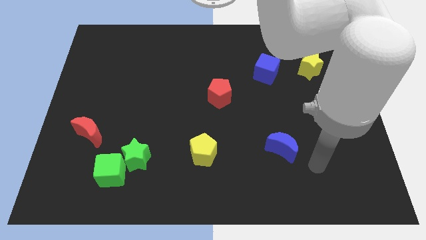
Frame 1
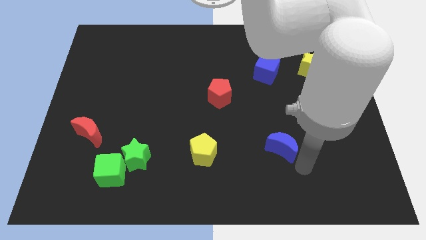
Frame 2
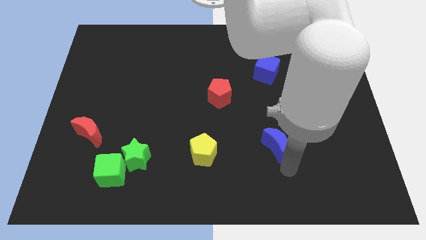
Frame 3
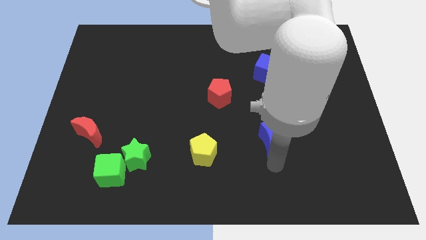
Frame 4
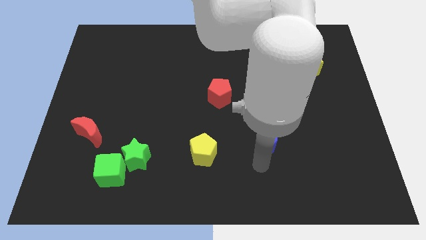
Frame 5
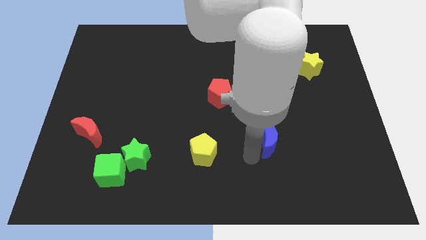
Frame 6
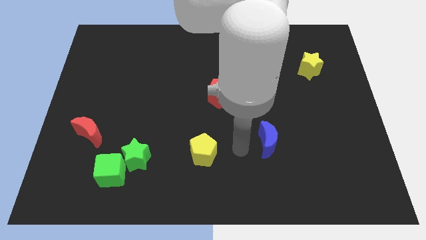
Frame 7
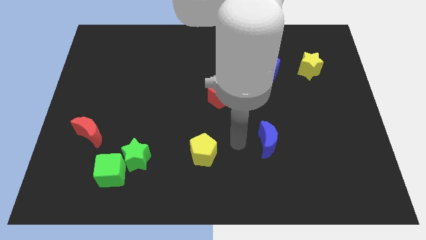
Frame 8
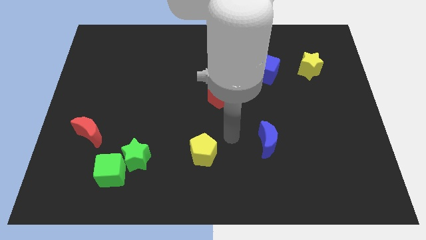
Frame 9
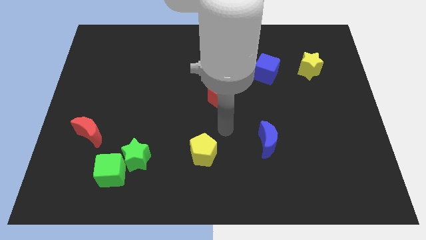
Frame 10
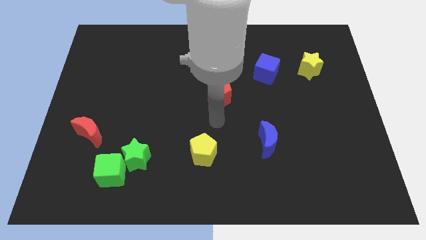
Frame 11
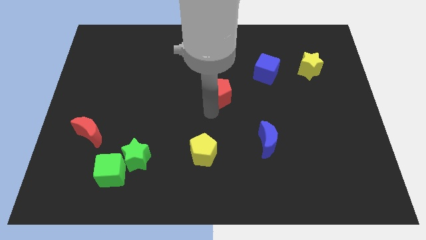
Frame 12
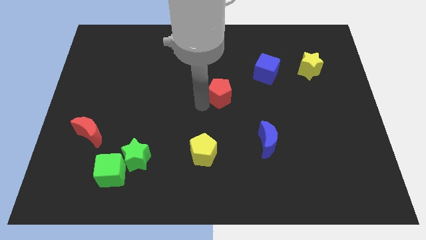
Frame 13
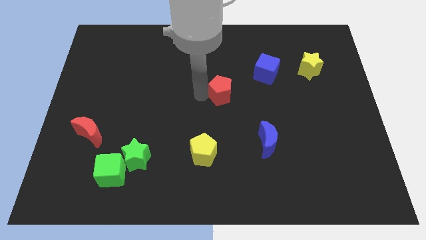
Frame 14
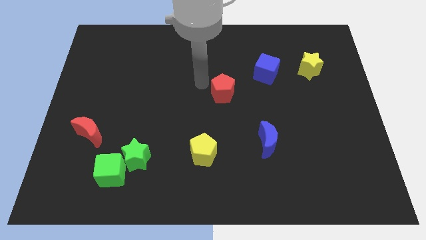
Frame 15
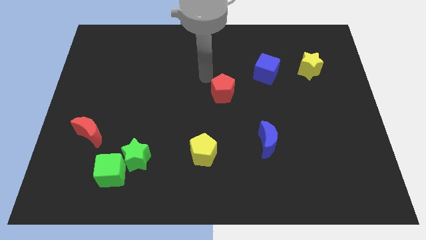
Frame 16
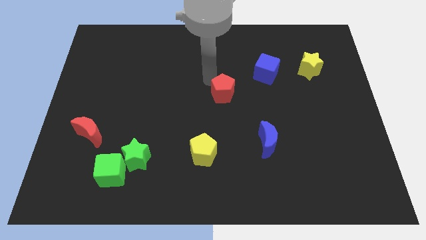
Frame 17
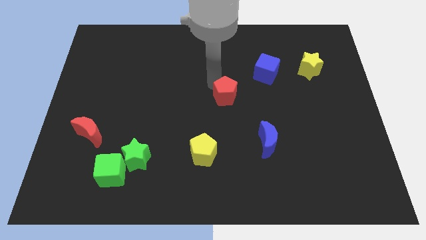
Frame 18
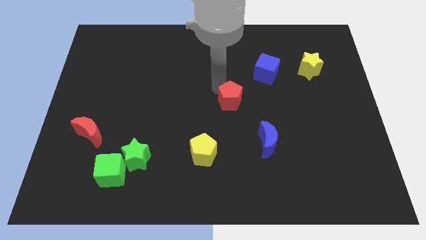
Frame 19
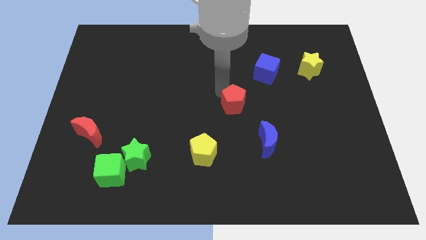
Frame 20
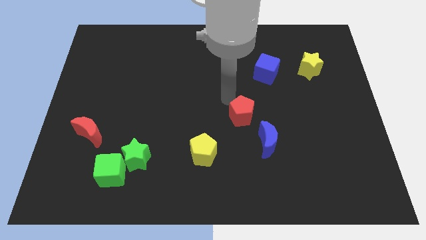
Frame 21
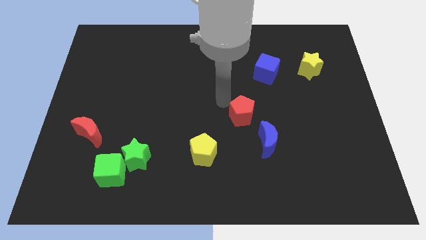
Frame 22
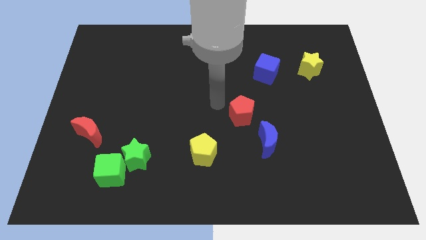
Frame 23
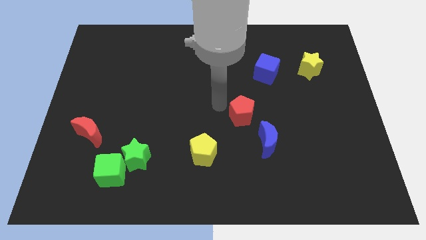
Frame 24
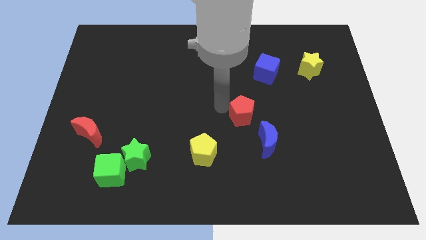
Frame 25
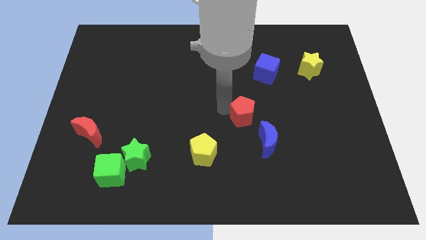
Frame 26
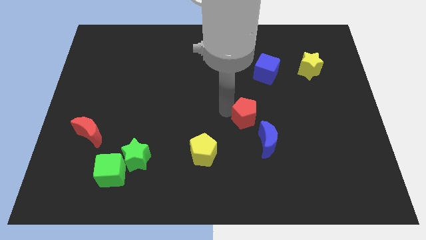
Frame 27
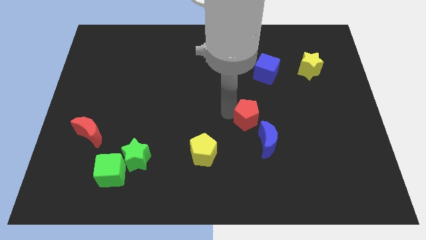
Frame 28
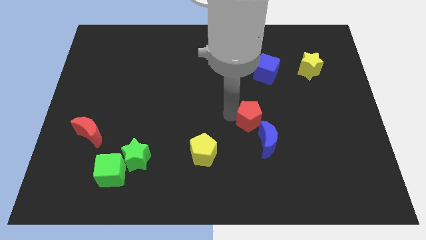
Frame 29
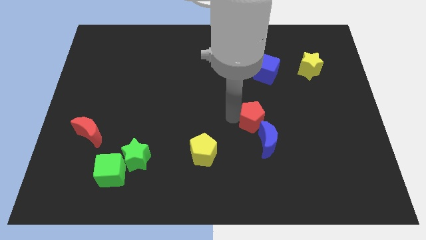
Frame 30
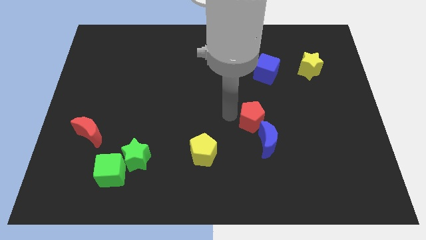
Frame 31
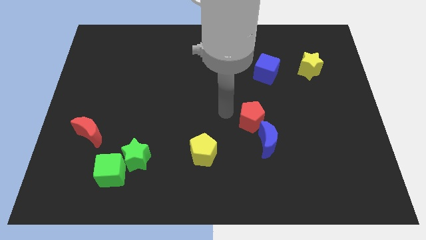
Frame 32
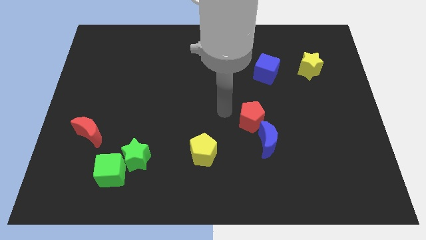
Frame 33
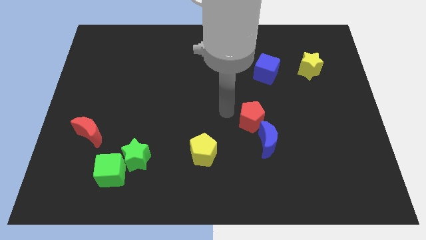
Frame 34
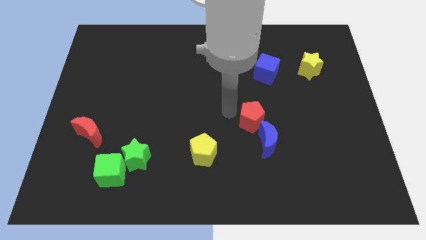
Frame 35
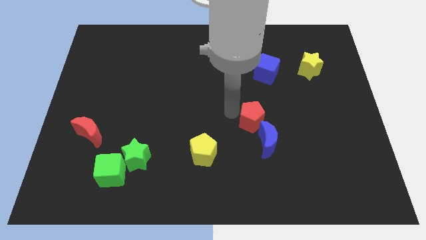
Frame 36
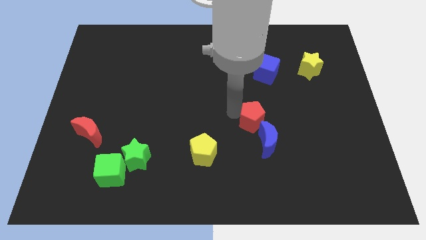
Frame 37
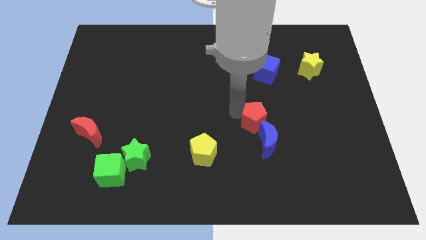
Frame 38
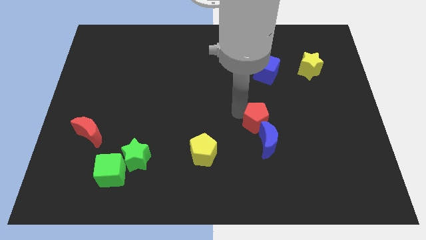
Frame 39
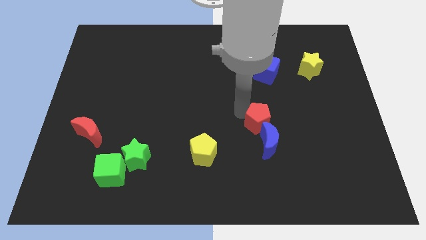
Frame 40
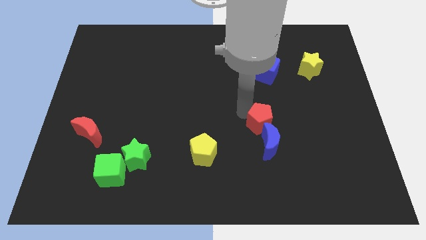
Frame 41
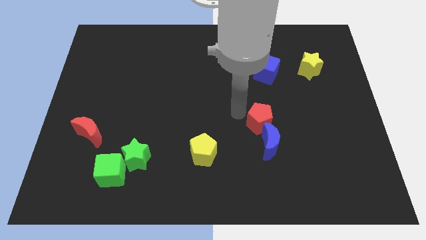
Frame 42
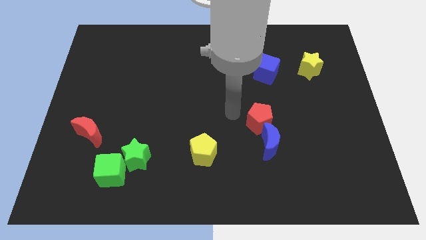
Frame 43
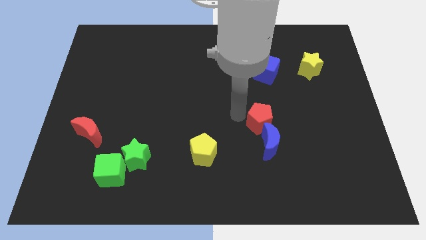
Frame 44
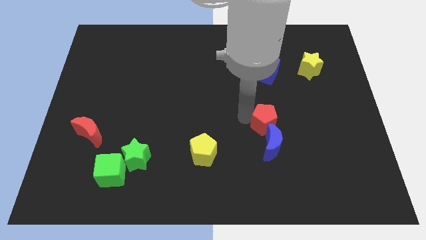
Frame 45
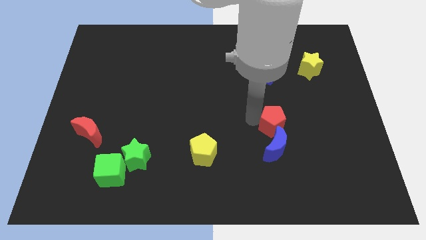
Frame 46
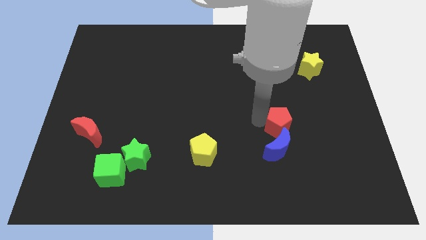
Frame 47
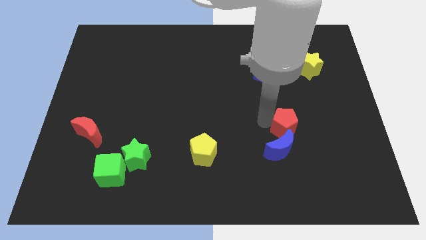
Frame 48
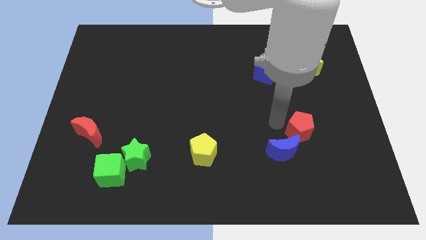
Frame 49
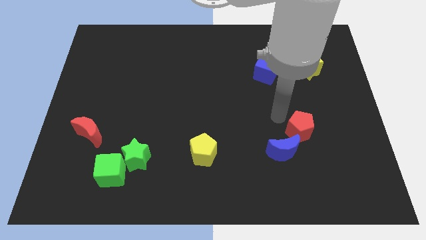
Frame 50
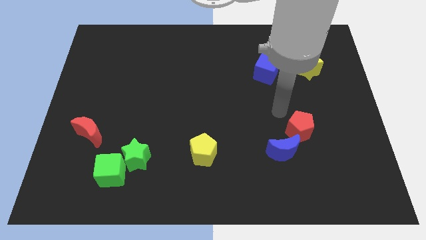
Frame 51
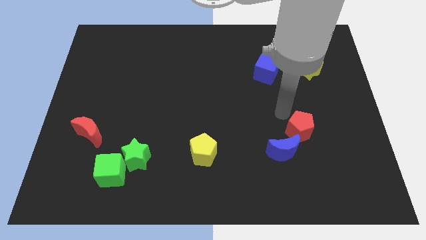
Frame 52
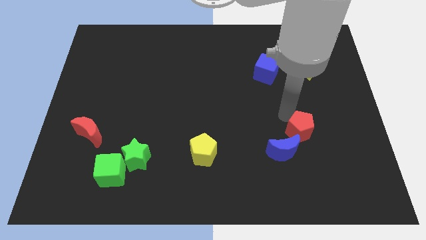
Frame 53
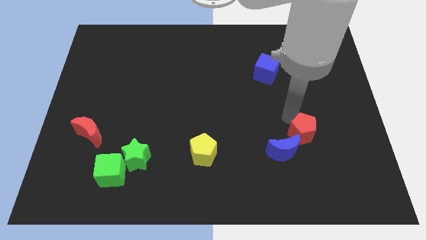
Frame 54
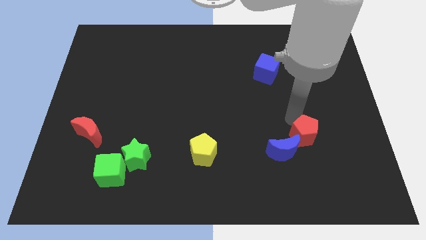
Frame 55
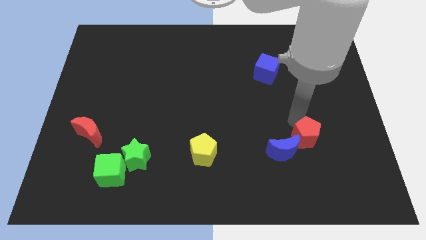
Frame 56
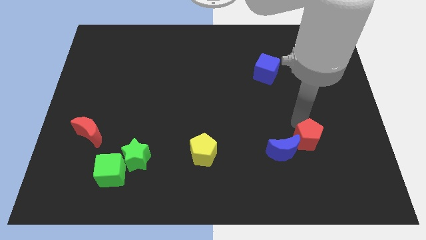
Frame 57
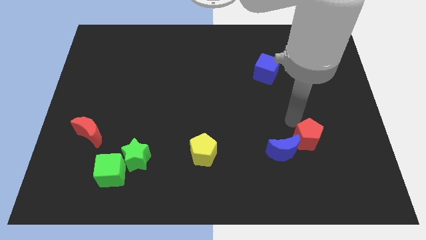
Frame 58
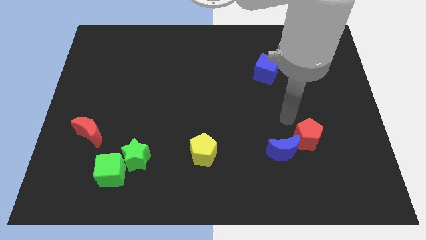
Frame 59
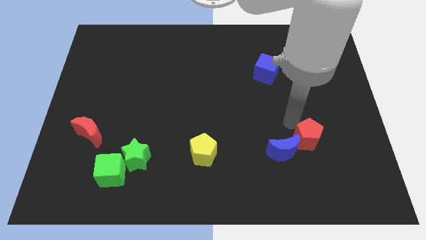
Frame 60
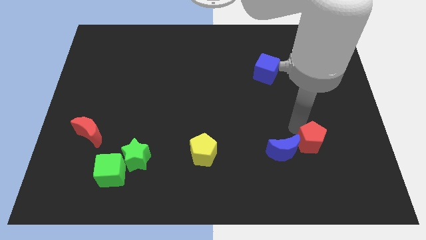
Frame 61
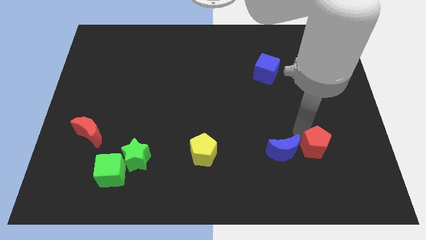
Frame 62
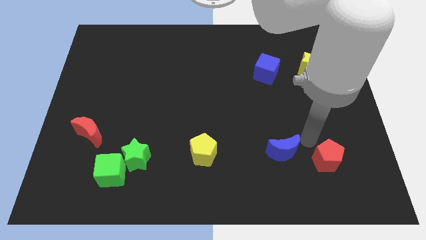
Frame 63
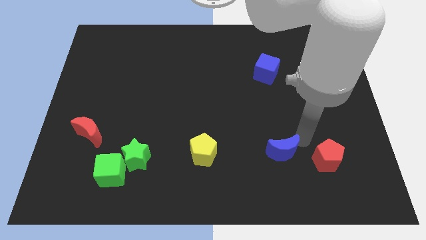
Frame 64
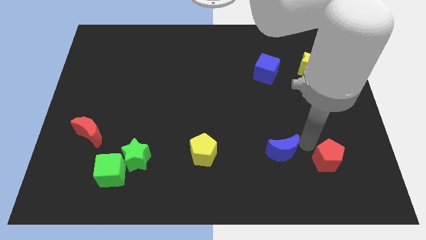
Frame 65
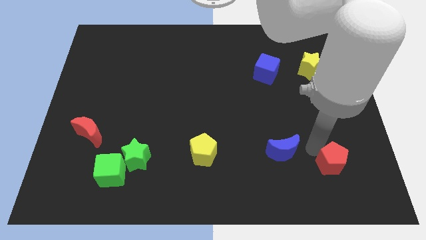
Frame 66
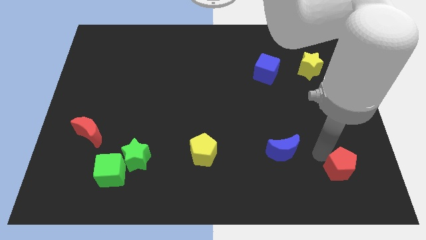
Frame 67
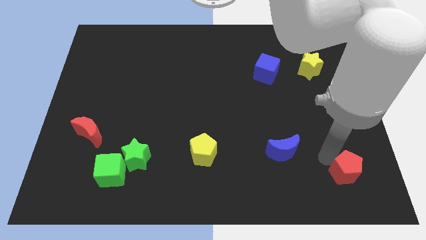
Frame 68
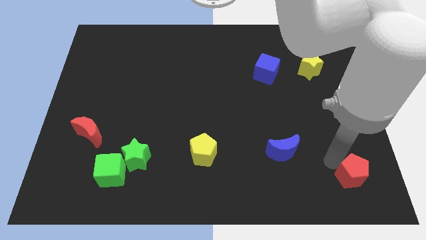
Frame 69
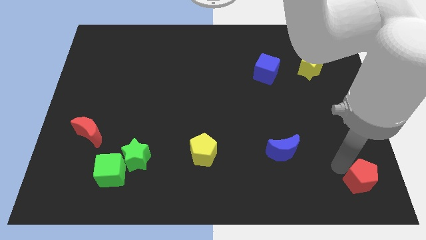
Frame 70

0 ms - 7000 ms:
push the red pentagon to the bottom right

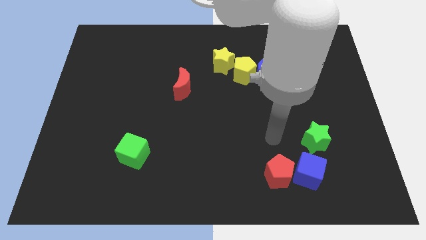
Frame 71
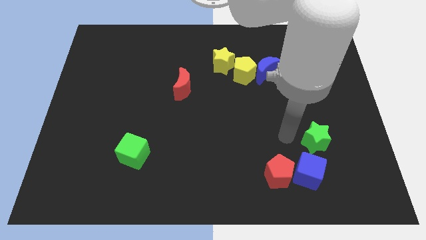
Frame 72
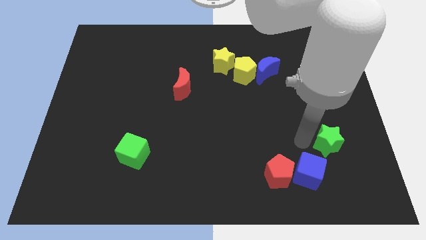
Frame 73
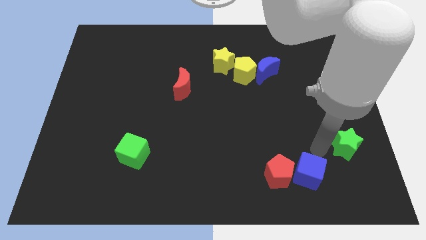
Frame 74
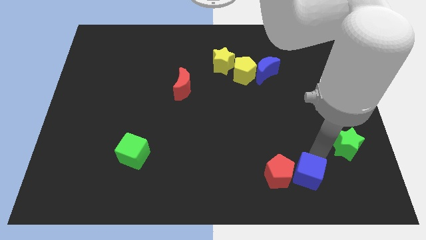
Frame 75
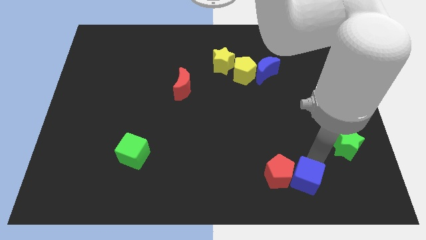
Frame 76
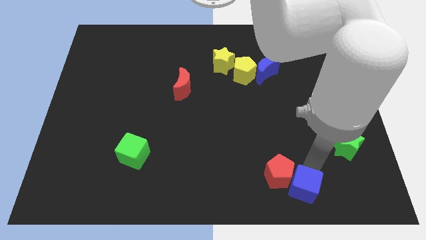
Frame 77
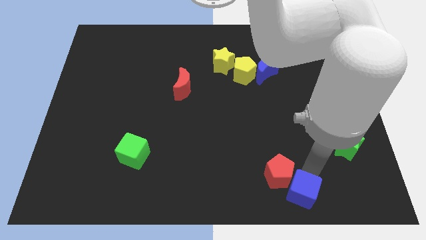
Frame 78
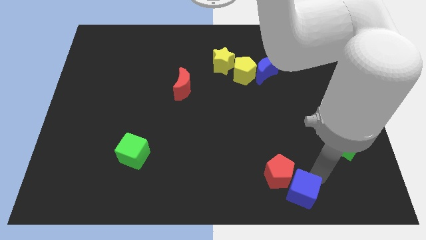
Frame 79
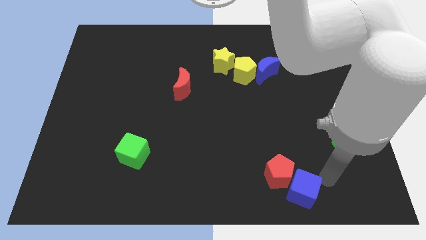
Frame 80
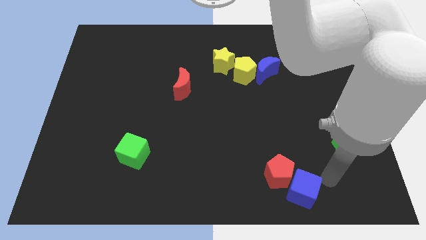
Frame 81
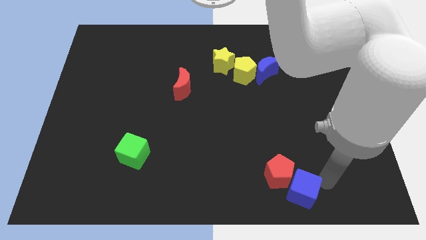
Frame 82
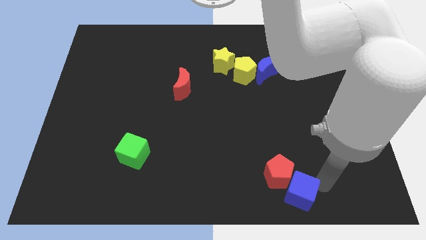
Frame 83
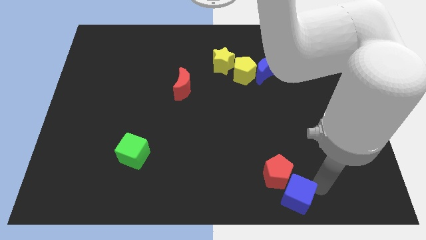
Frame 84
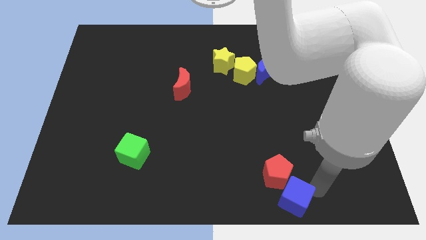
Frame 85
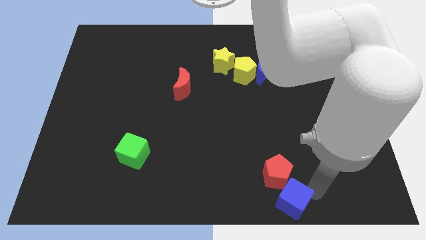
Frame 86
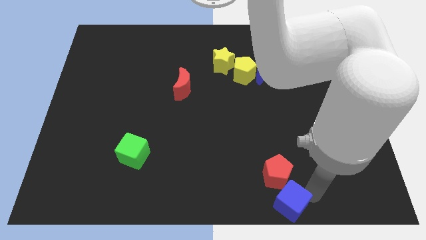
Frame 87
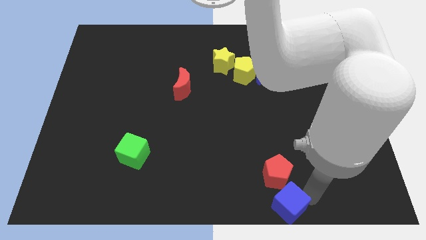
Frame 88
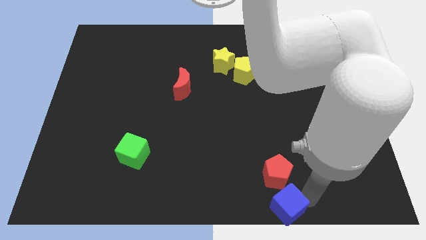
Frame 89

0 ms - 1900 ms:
put the blue cube to the bottom
